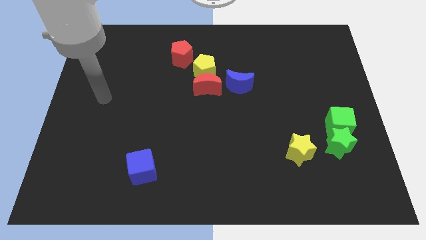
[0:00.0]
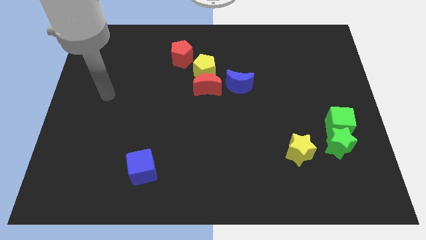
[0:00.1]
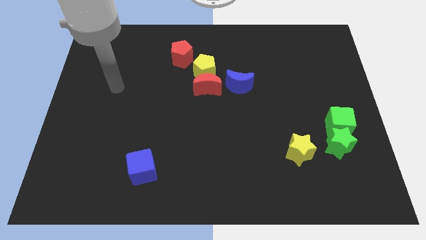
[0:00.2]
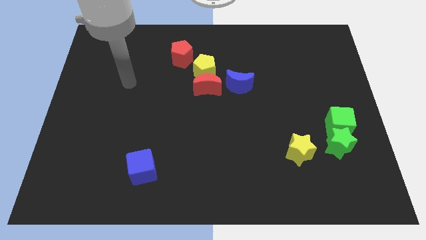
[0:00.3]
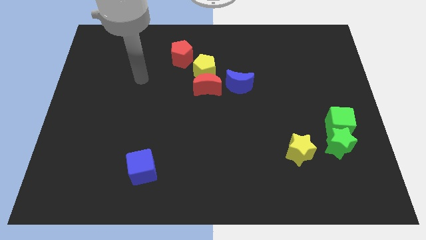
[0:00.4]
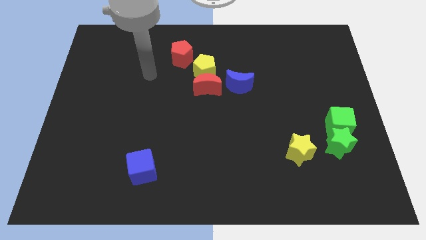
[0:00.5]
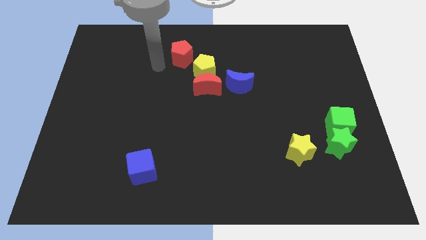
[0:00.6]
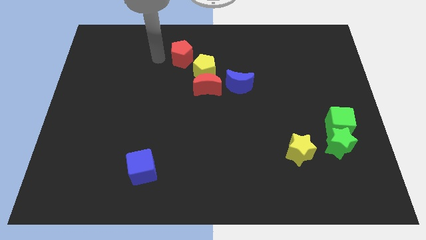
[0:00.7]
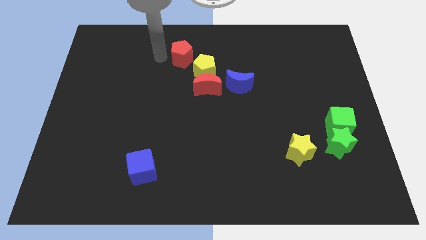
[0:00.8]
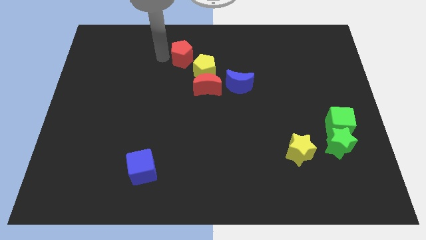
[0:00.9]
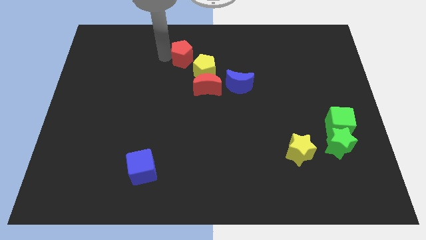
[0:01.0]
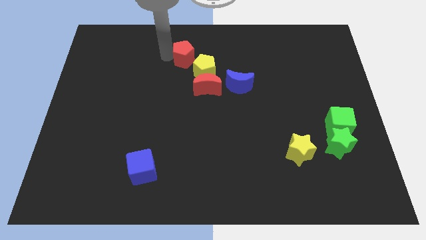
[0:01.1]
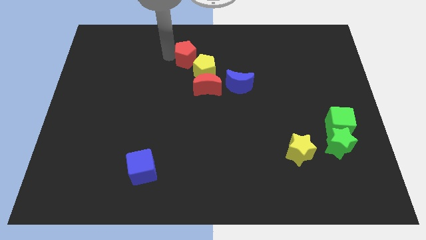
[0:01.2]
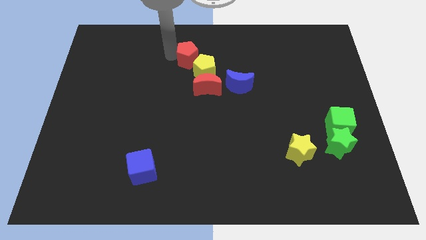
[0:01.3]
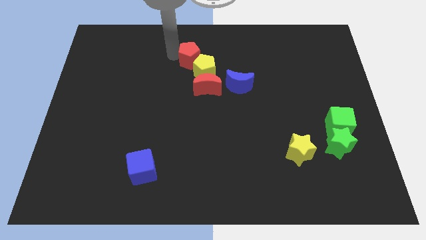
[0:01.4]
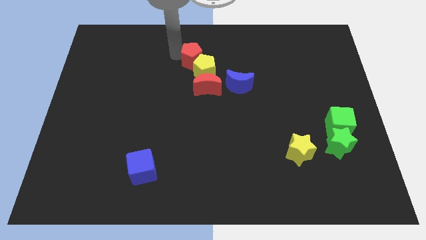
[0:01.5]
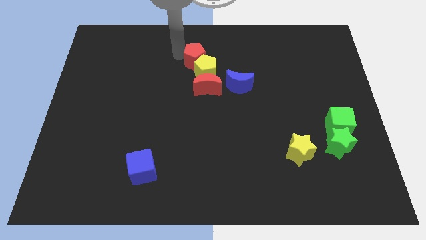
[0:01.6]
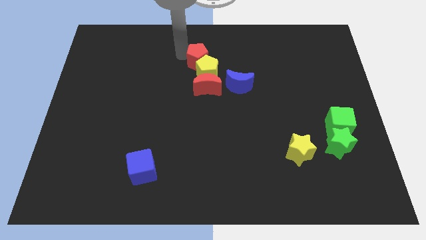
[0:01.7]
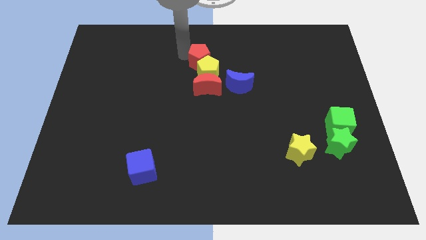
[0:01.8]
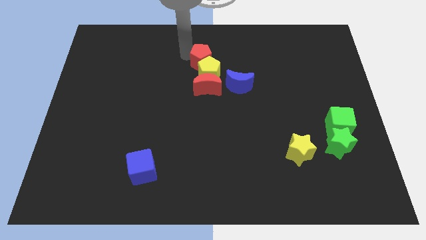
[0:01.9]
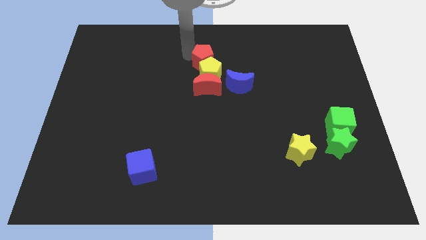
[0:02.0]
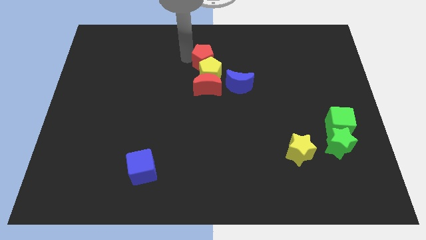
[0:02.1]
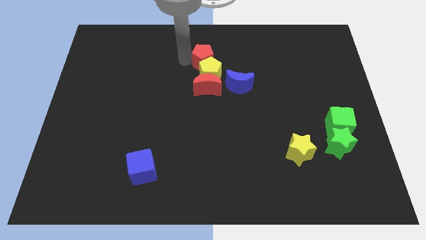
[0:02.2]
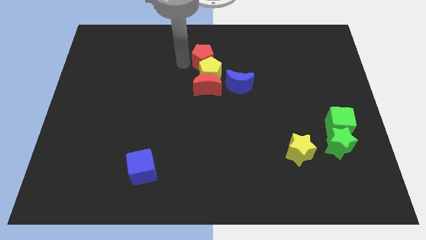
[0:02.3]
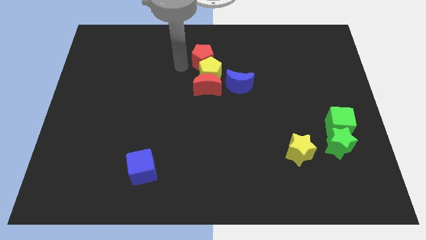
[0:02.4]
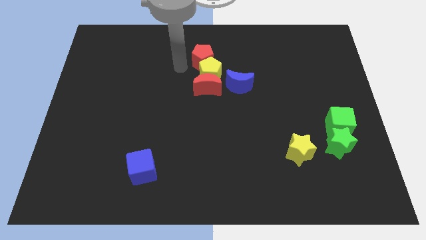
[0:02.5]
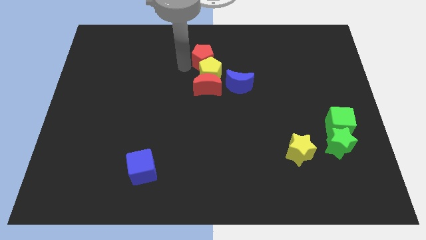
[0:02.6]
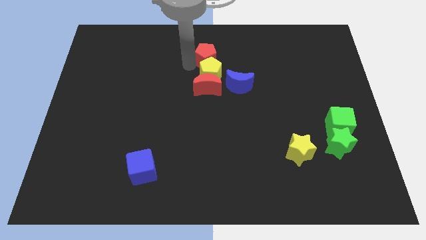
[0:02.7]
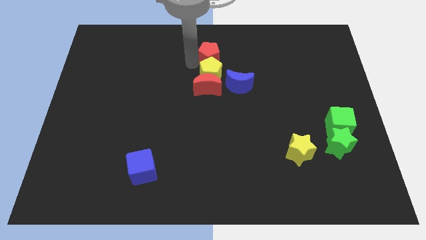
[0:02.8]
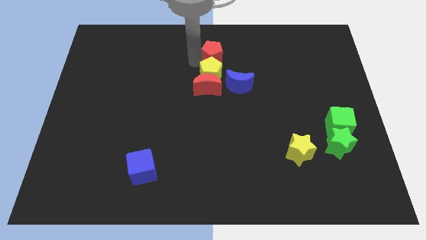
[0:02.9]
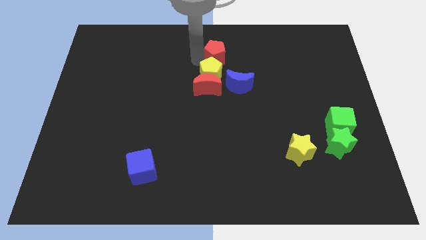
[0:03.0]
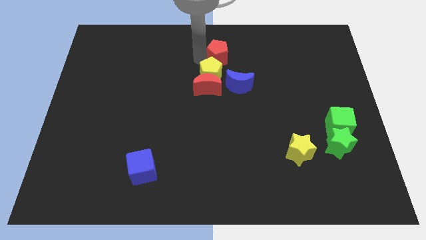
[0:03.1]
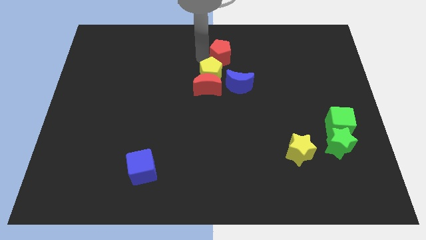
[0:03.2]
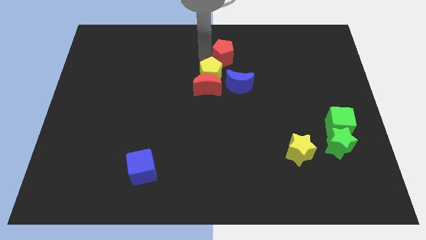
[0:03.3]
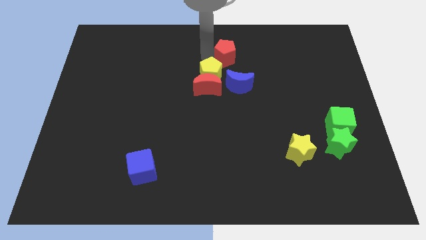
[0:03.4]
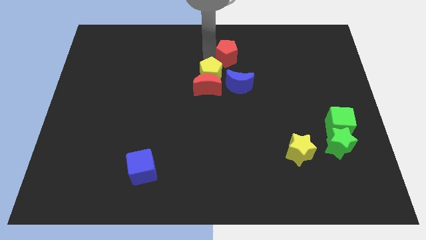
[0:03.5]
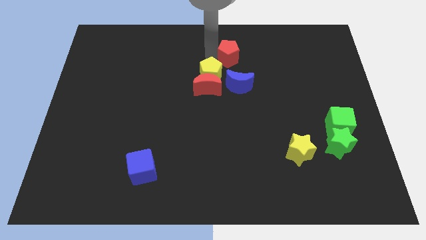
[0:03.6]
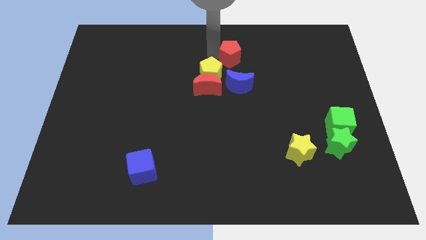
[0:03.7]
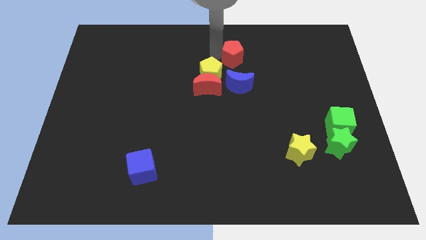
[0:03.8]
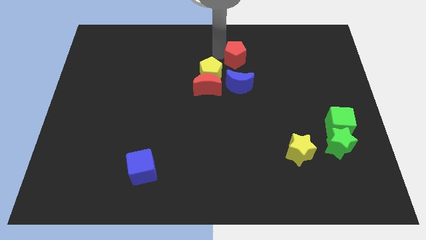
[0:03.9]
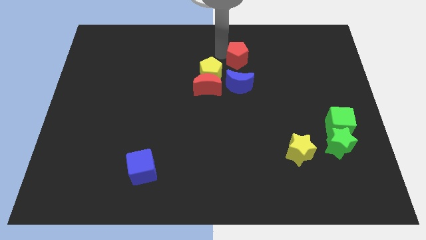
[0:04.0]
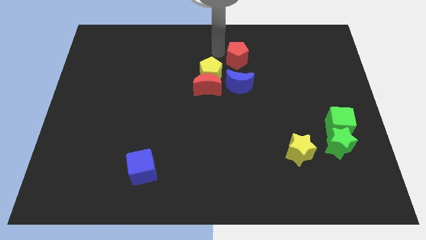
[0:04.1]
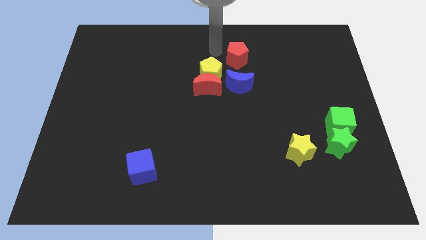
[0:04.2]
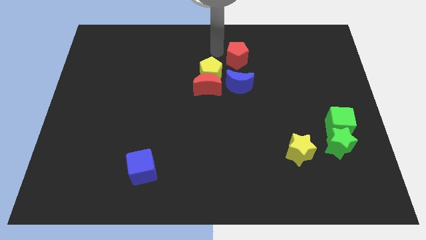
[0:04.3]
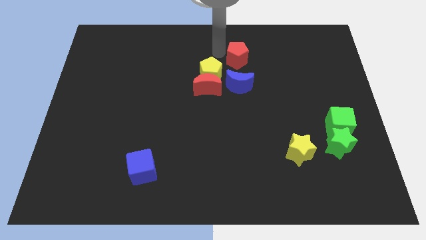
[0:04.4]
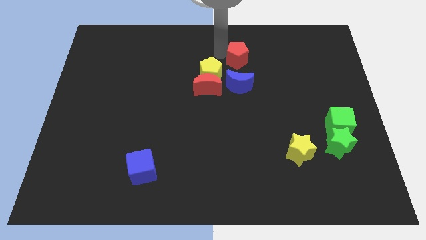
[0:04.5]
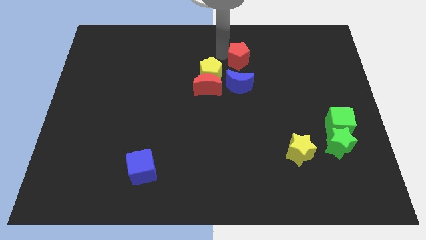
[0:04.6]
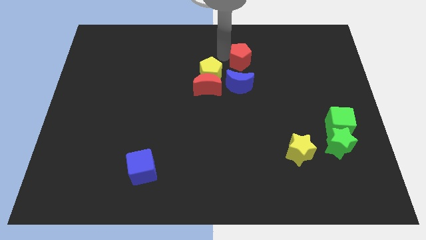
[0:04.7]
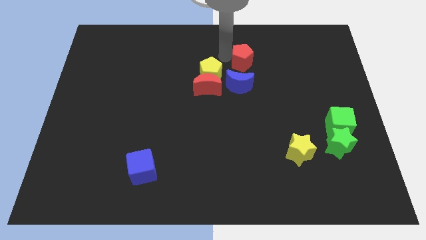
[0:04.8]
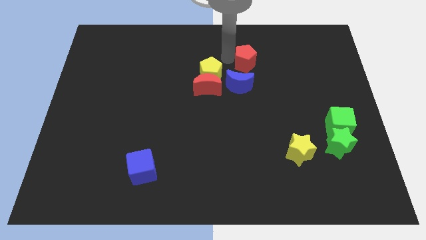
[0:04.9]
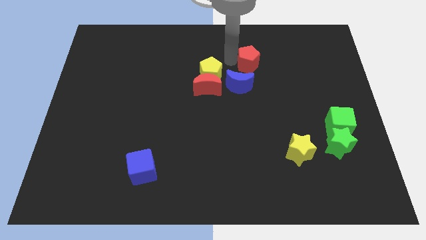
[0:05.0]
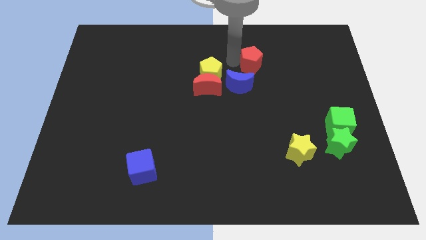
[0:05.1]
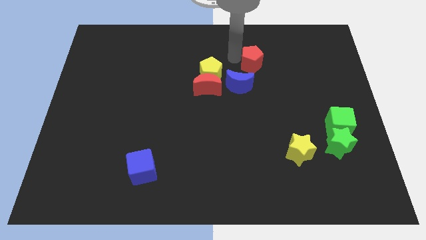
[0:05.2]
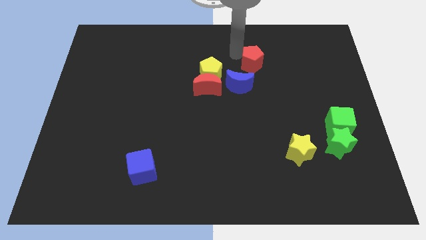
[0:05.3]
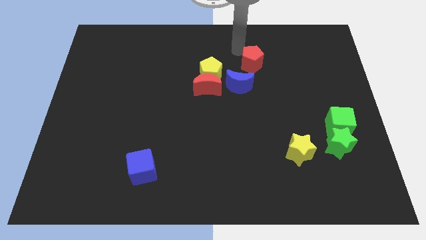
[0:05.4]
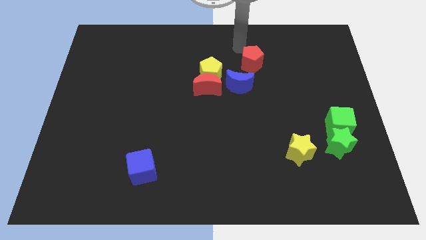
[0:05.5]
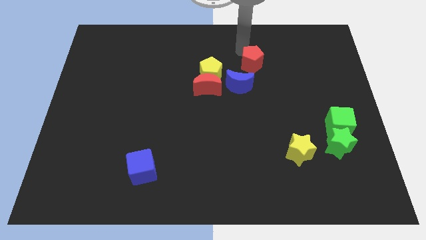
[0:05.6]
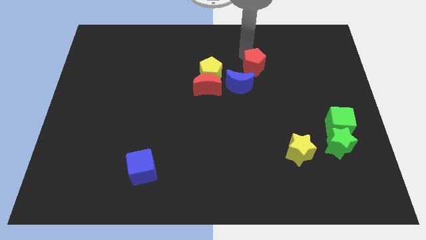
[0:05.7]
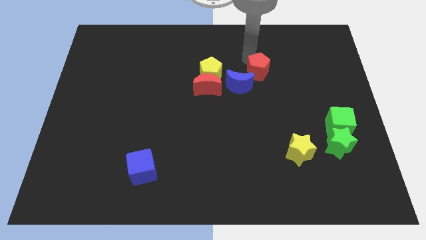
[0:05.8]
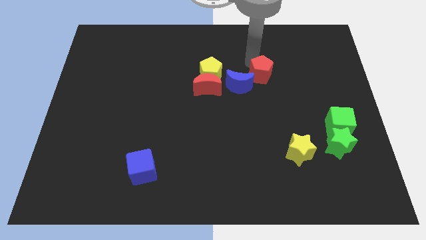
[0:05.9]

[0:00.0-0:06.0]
put the red pentagon just right of the blue moon

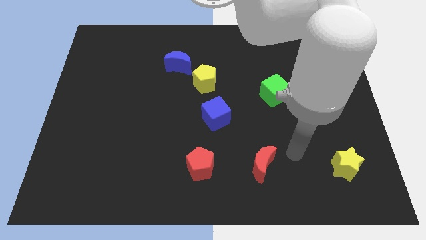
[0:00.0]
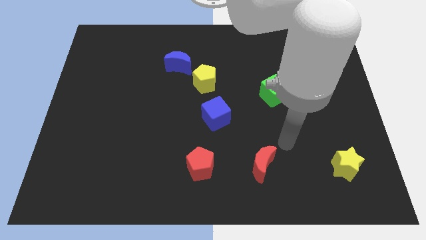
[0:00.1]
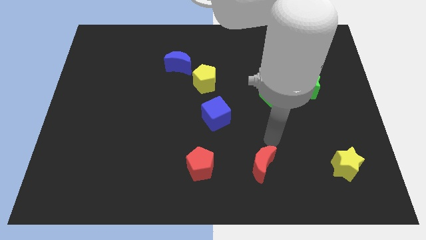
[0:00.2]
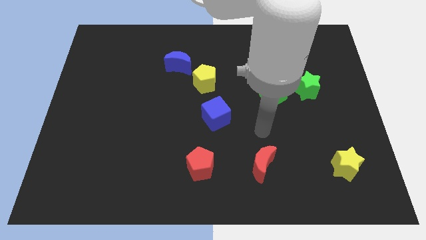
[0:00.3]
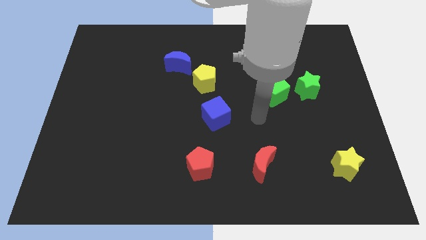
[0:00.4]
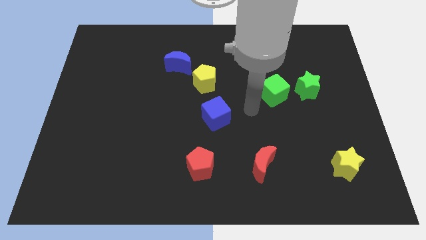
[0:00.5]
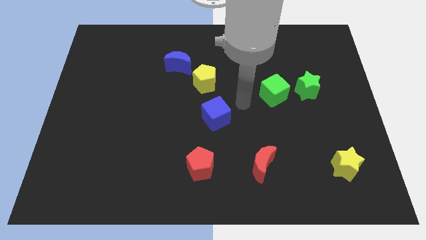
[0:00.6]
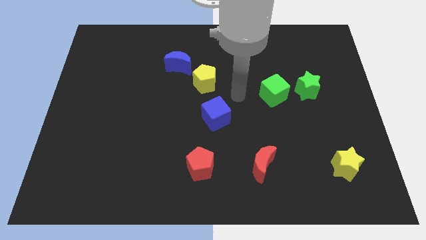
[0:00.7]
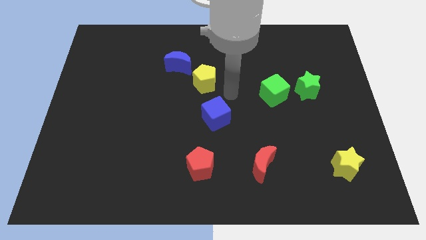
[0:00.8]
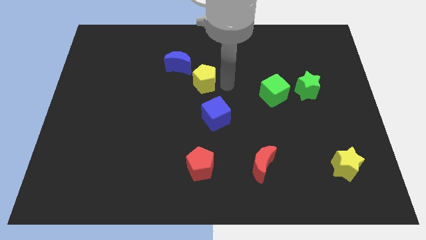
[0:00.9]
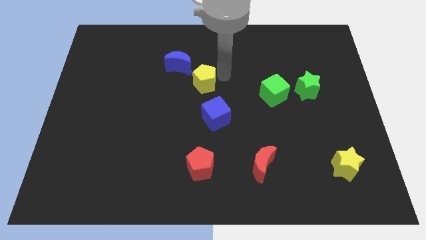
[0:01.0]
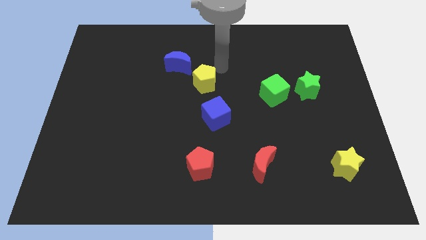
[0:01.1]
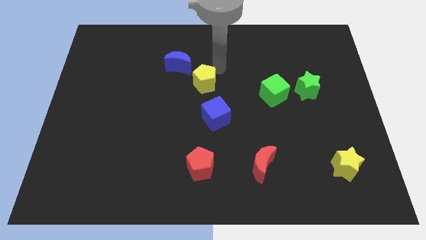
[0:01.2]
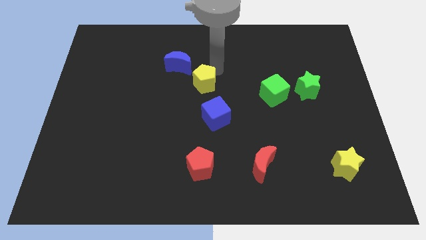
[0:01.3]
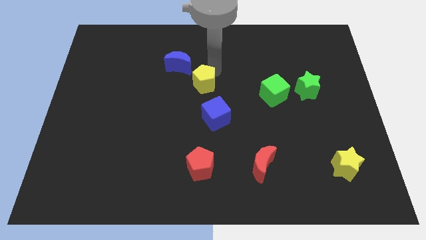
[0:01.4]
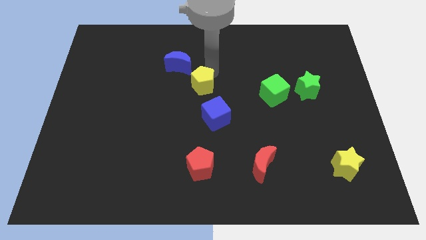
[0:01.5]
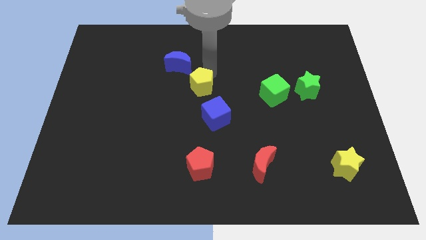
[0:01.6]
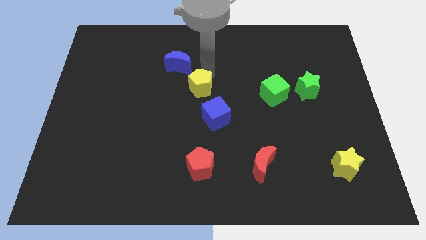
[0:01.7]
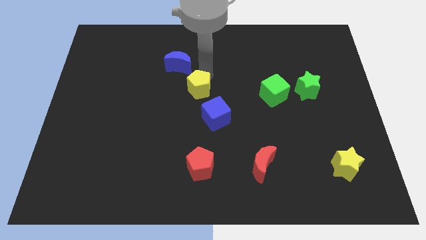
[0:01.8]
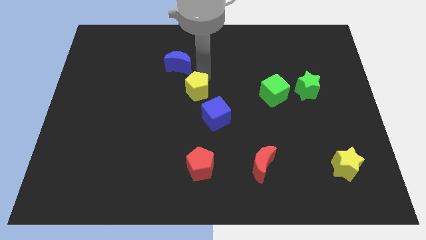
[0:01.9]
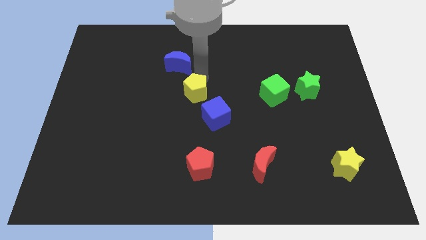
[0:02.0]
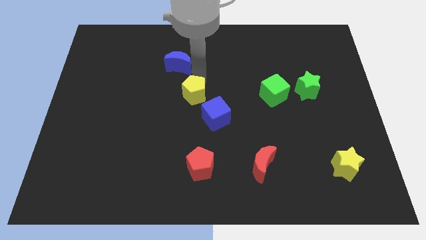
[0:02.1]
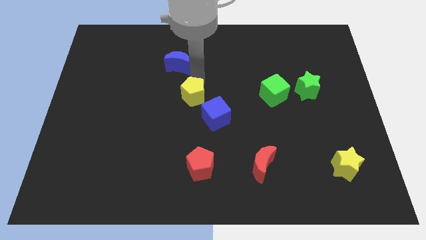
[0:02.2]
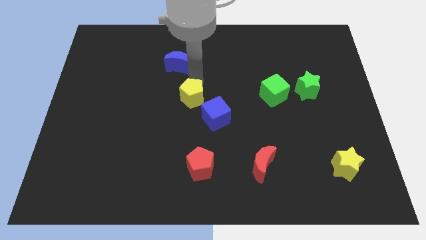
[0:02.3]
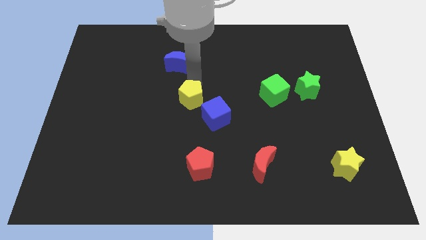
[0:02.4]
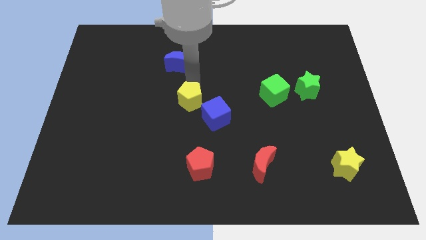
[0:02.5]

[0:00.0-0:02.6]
move the yellow pentagon just left of the blue cube
